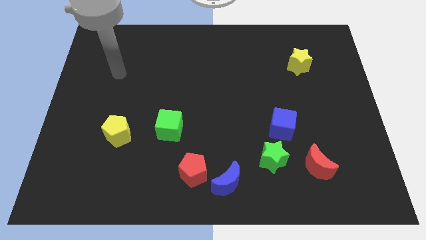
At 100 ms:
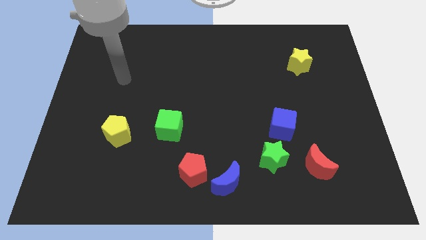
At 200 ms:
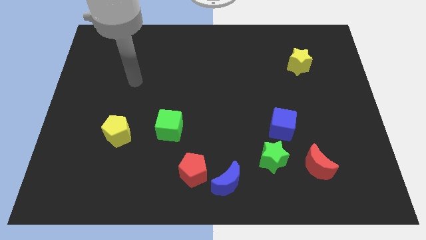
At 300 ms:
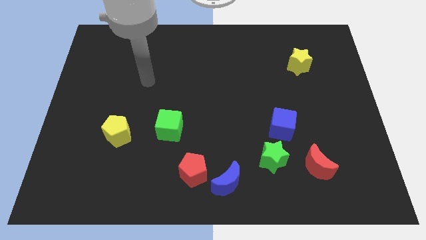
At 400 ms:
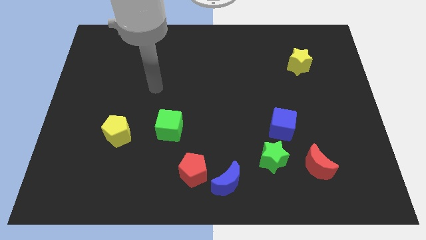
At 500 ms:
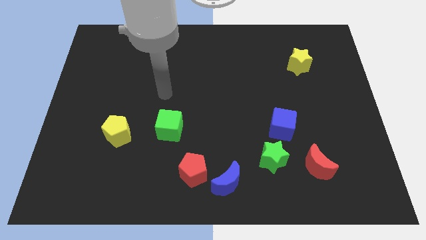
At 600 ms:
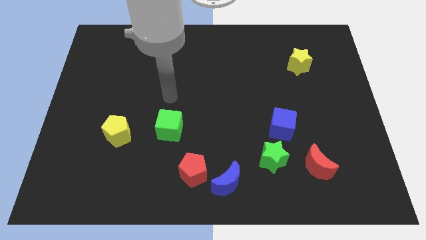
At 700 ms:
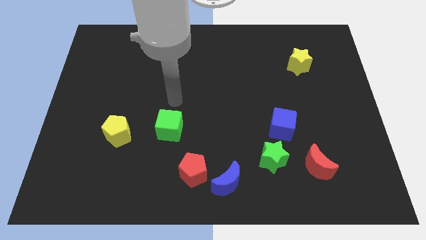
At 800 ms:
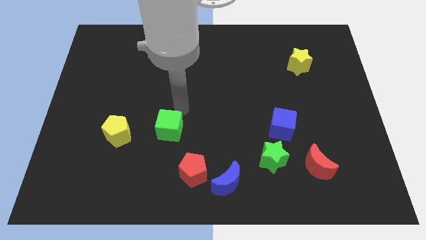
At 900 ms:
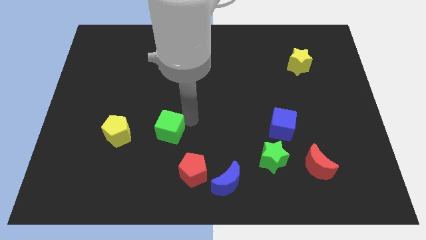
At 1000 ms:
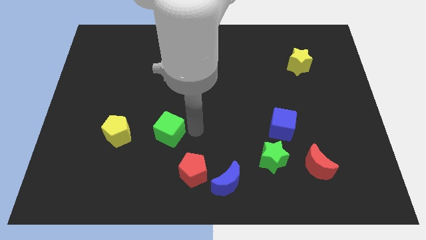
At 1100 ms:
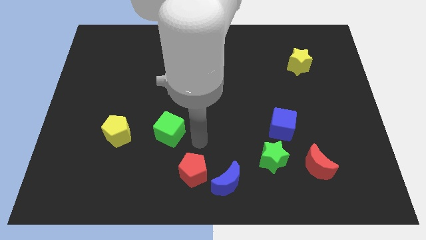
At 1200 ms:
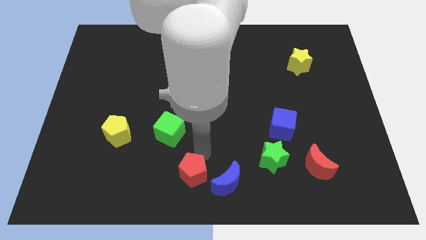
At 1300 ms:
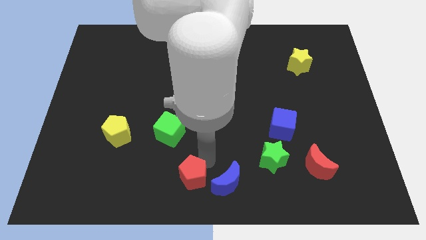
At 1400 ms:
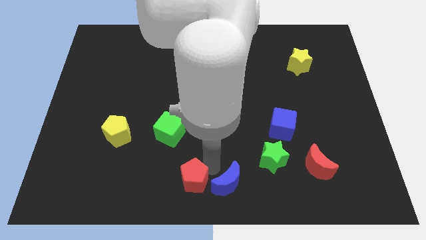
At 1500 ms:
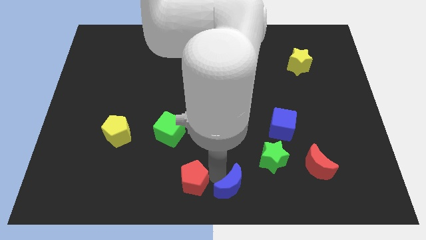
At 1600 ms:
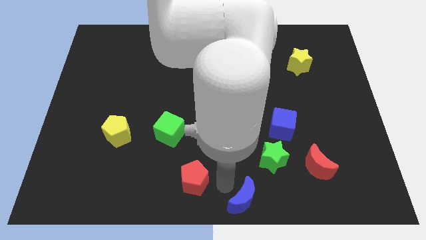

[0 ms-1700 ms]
move the red pentagon away from the blue moon

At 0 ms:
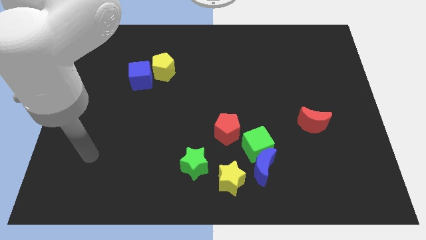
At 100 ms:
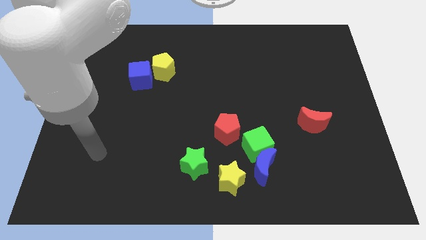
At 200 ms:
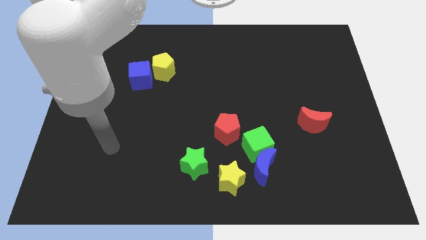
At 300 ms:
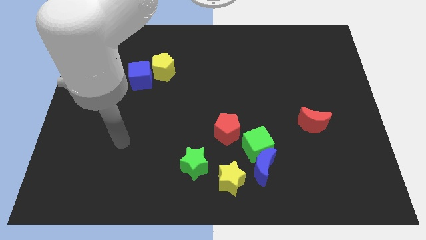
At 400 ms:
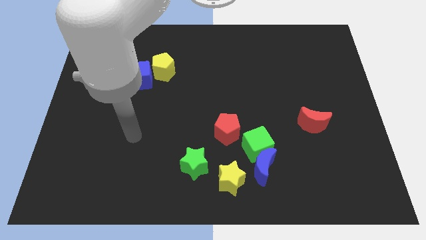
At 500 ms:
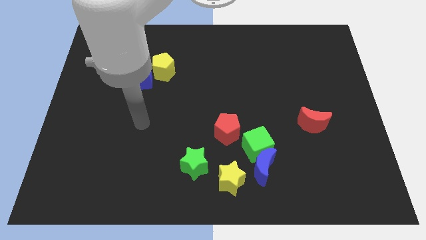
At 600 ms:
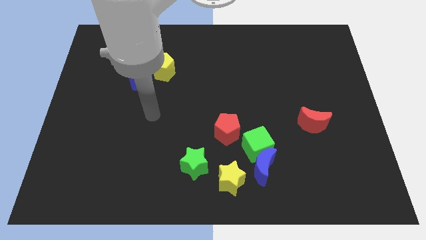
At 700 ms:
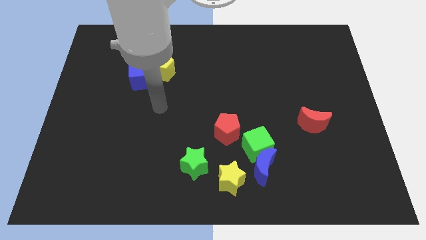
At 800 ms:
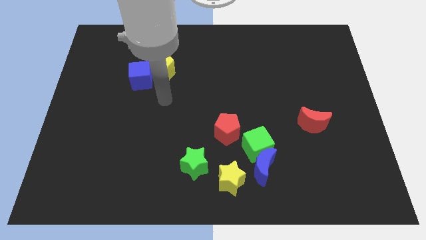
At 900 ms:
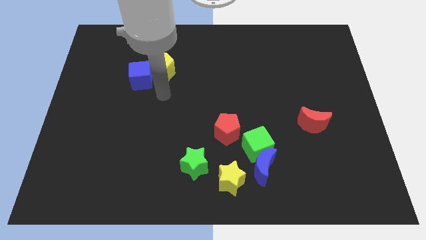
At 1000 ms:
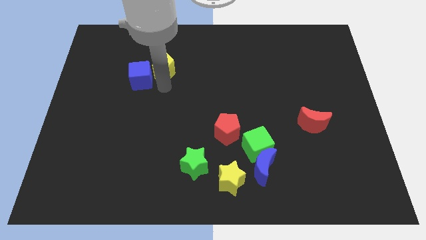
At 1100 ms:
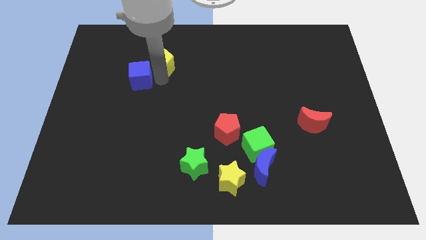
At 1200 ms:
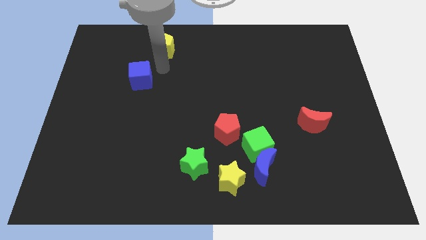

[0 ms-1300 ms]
separate the blue cube from the yellow pentagon

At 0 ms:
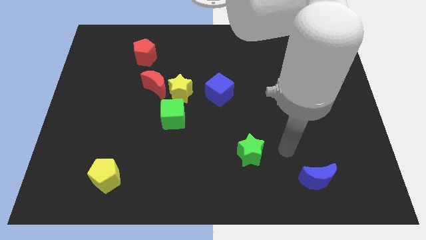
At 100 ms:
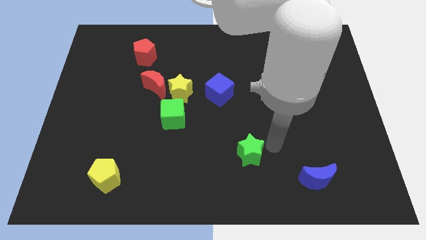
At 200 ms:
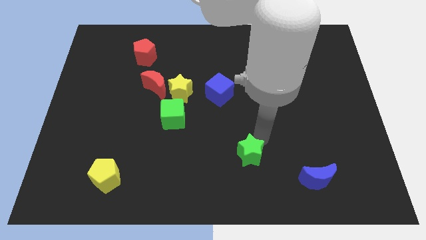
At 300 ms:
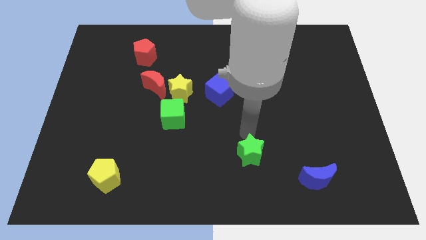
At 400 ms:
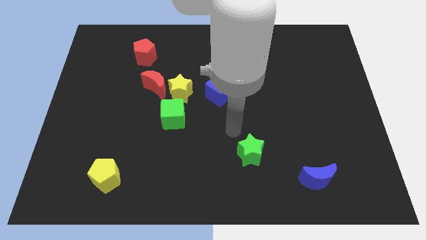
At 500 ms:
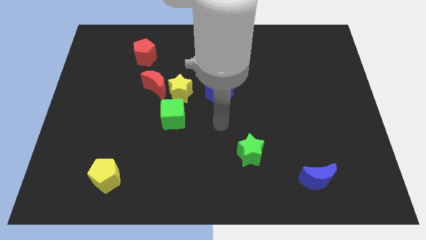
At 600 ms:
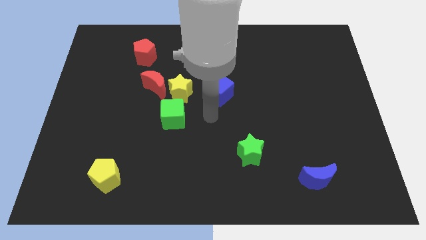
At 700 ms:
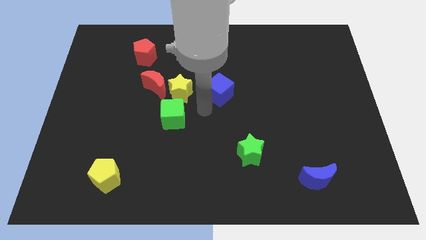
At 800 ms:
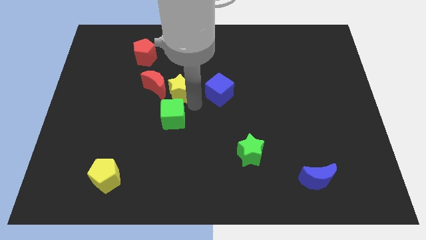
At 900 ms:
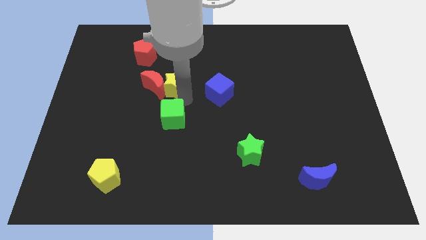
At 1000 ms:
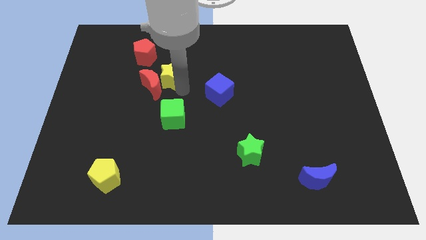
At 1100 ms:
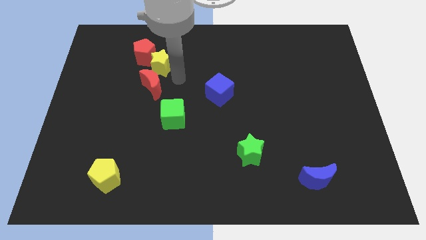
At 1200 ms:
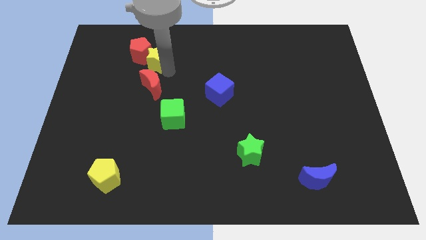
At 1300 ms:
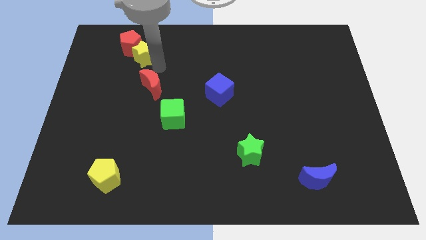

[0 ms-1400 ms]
pull the red moon apart from the yellow star

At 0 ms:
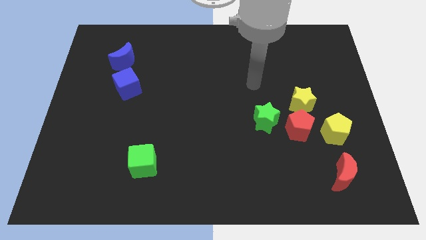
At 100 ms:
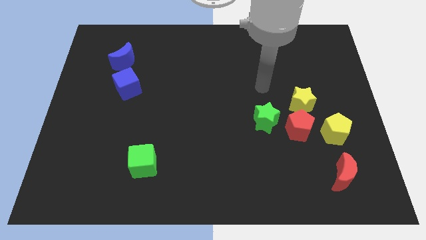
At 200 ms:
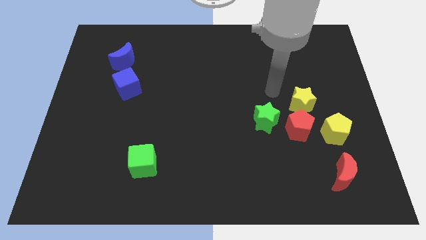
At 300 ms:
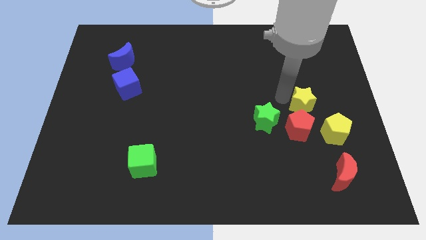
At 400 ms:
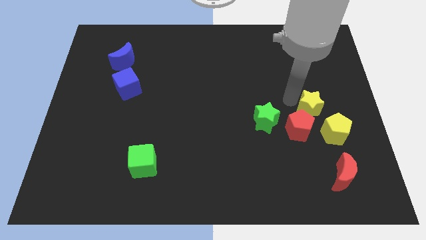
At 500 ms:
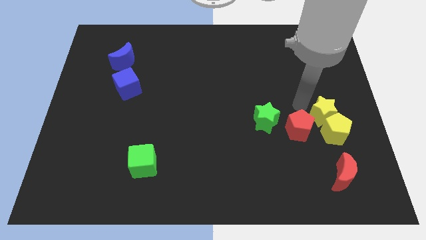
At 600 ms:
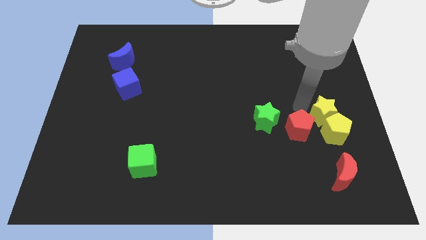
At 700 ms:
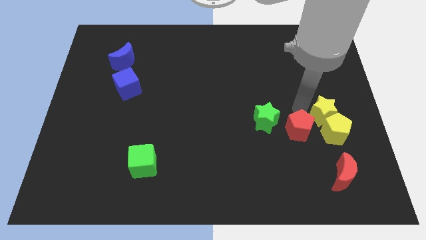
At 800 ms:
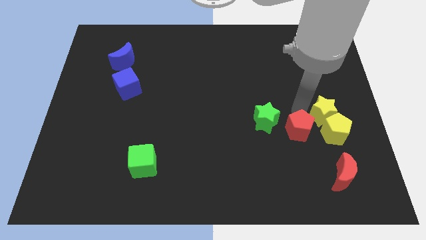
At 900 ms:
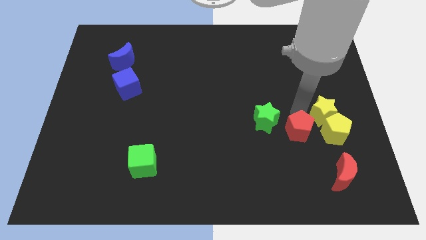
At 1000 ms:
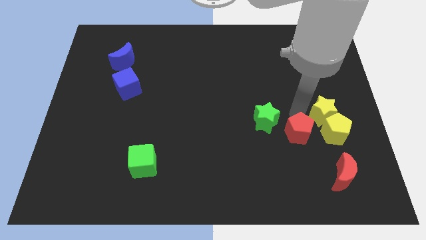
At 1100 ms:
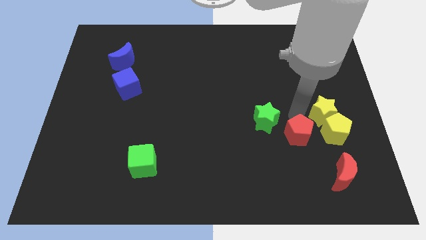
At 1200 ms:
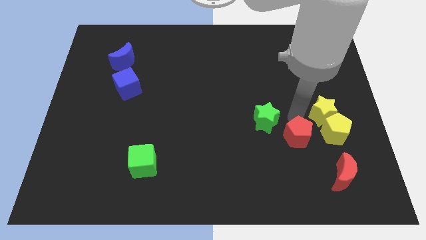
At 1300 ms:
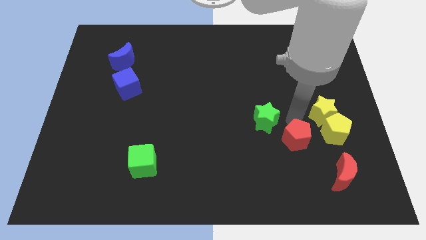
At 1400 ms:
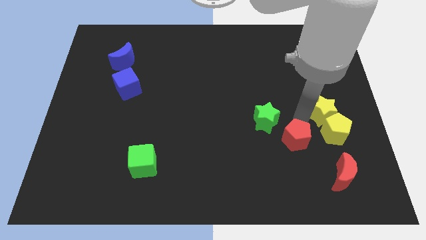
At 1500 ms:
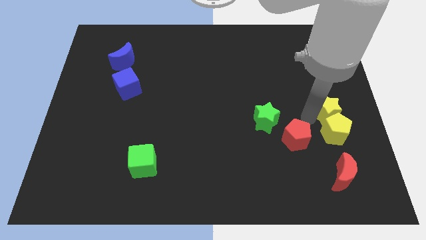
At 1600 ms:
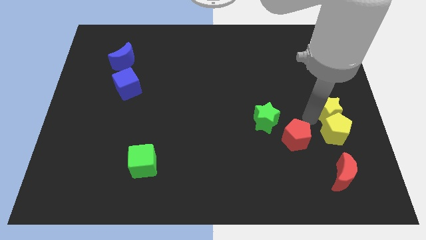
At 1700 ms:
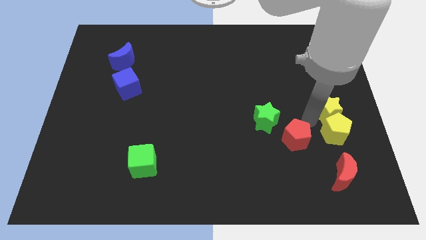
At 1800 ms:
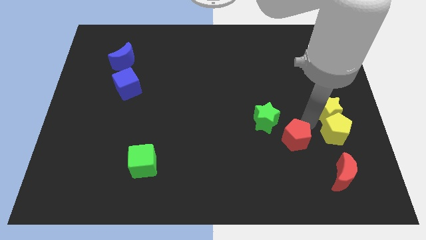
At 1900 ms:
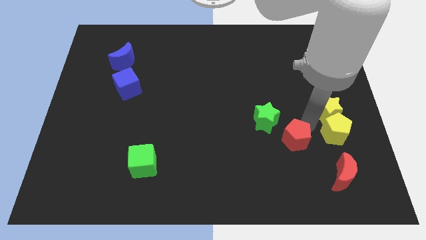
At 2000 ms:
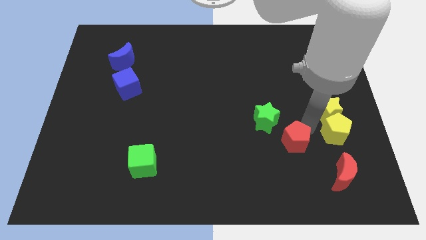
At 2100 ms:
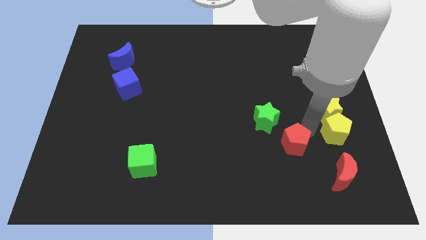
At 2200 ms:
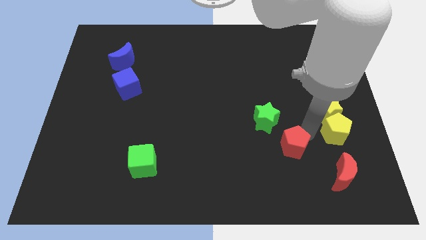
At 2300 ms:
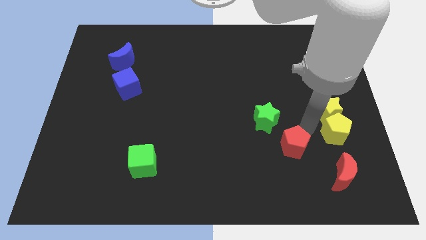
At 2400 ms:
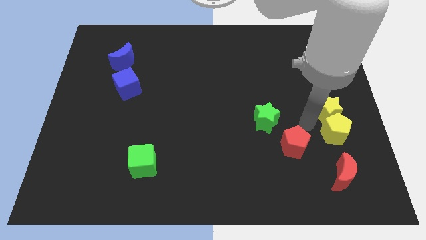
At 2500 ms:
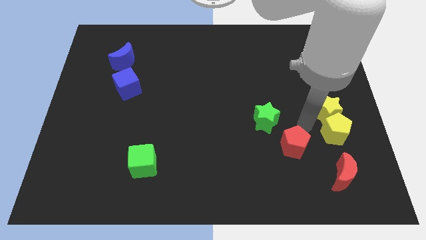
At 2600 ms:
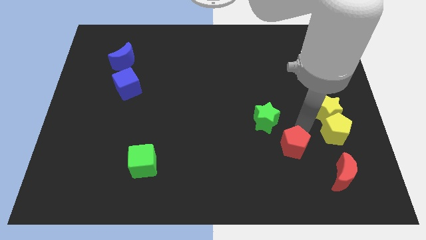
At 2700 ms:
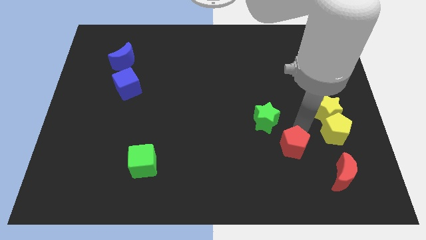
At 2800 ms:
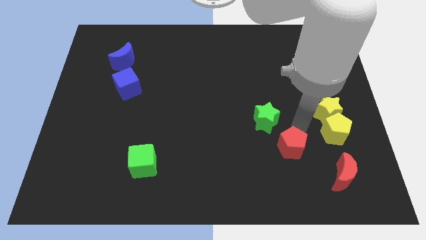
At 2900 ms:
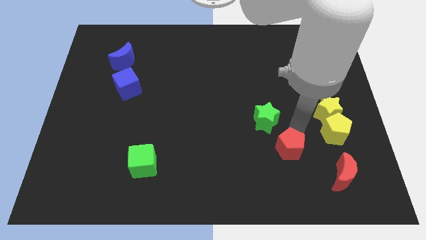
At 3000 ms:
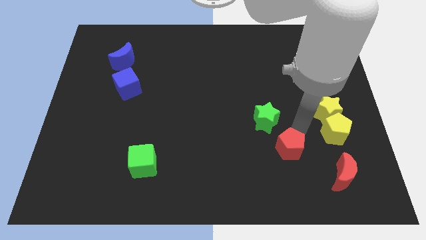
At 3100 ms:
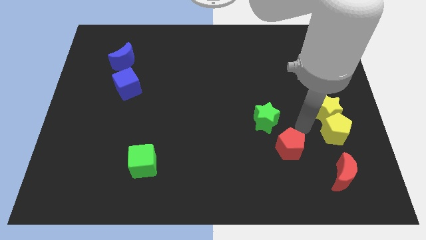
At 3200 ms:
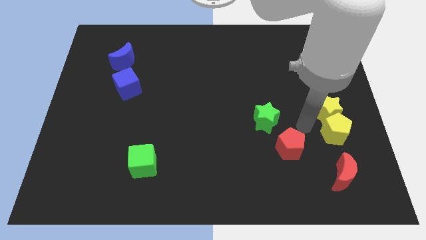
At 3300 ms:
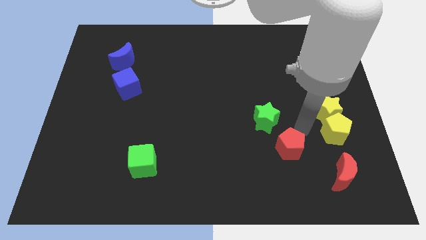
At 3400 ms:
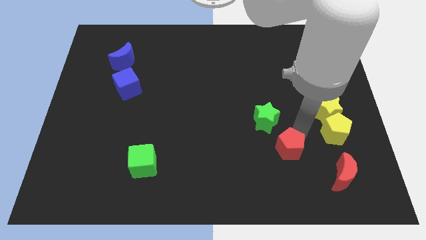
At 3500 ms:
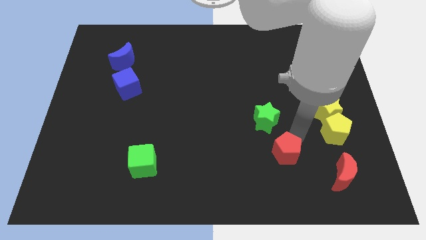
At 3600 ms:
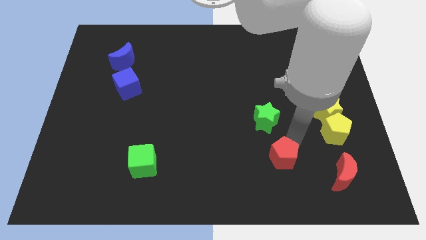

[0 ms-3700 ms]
move the red pentagon away from the yellow star, green star, and yellow pentagon

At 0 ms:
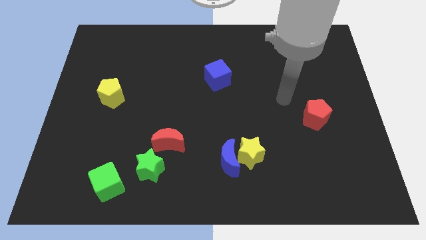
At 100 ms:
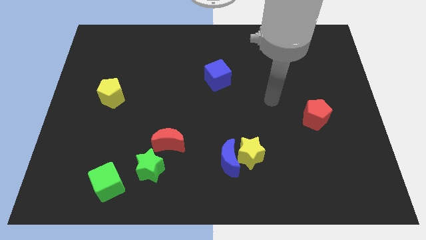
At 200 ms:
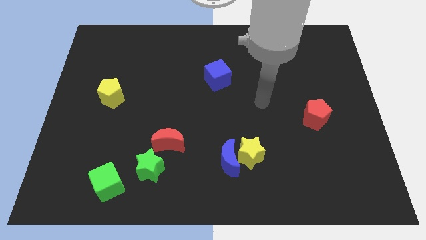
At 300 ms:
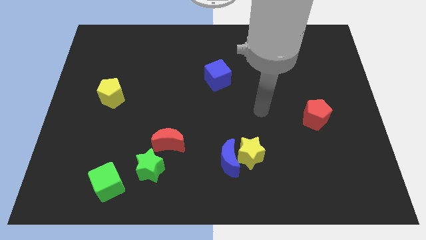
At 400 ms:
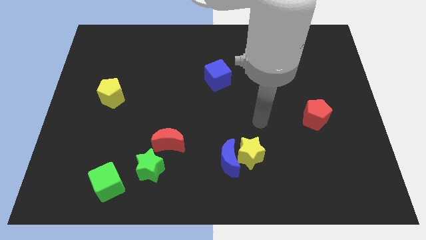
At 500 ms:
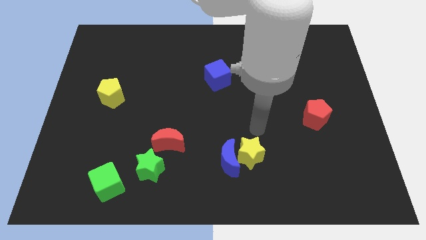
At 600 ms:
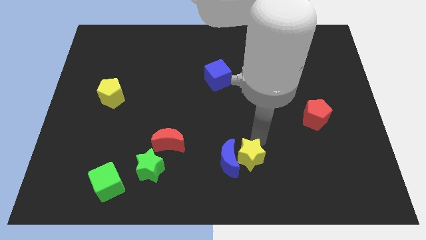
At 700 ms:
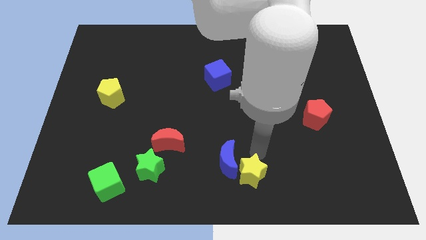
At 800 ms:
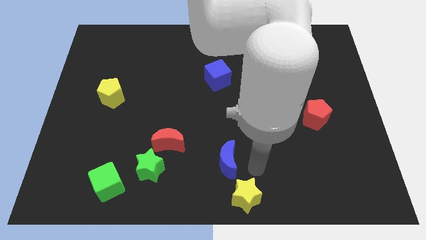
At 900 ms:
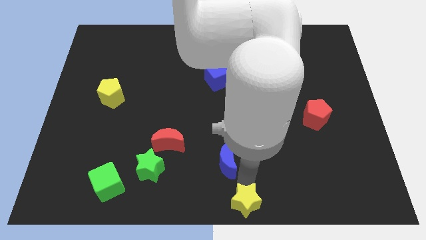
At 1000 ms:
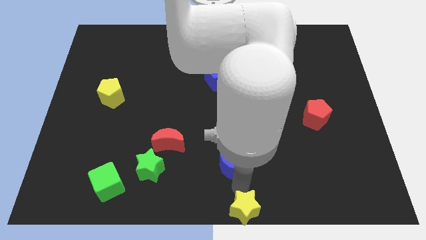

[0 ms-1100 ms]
pull the blue moon apart from the yellow star

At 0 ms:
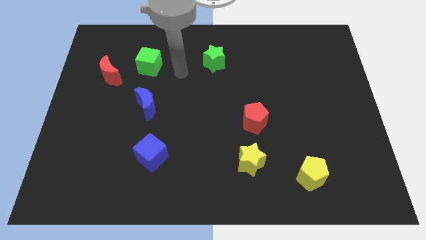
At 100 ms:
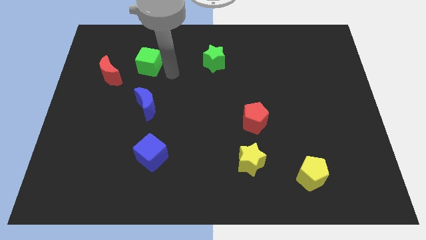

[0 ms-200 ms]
separate the red moon from the green cube
